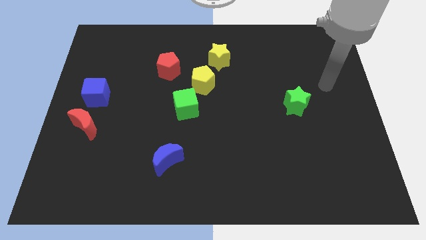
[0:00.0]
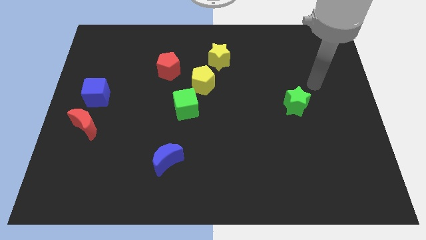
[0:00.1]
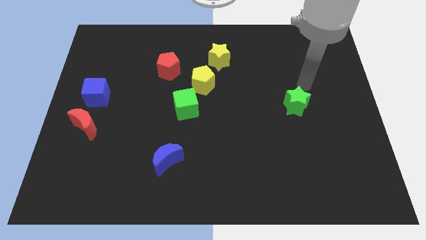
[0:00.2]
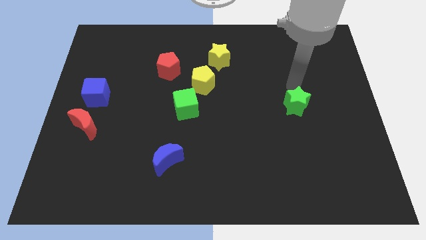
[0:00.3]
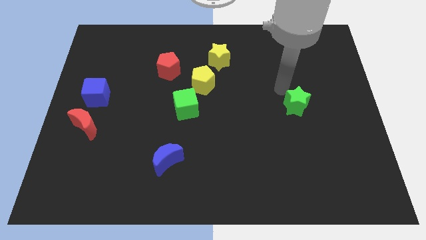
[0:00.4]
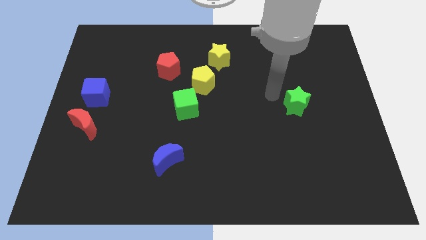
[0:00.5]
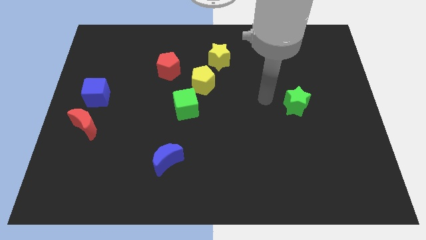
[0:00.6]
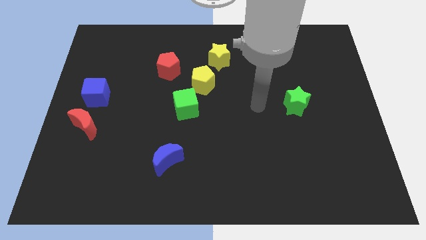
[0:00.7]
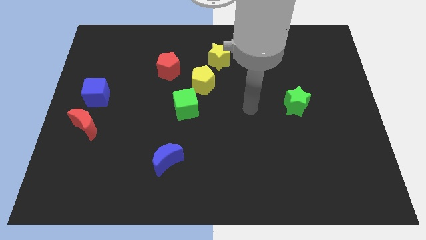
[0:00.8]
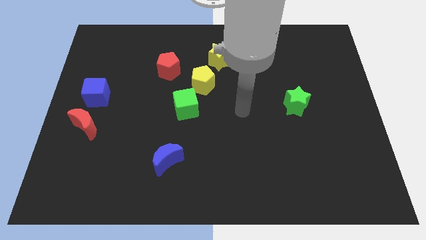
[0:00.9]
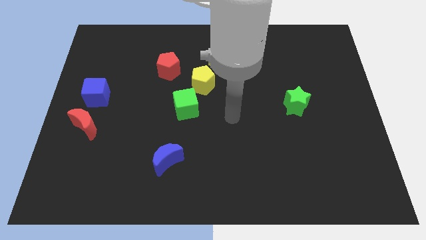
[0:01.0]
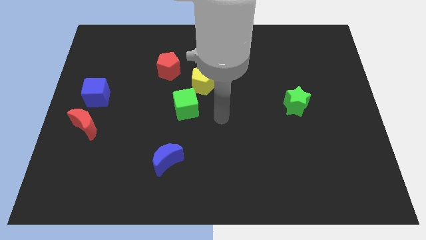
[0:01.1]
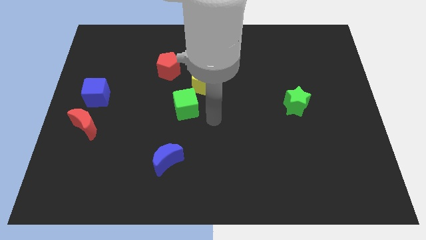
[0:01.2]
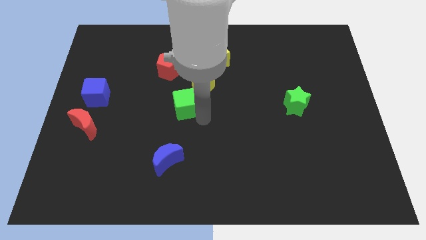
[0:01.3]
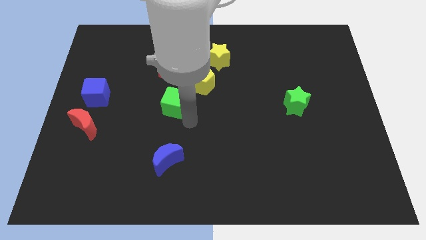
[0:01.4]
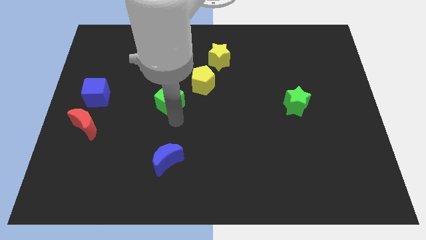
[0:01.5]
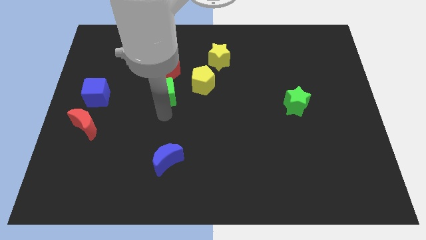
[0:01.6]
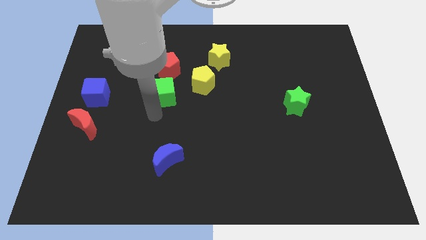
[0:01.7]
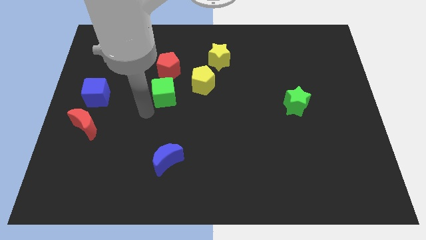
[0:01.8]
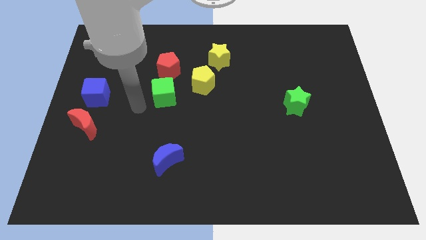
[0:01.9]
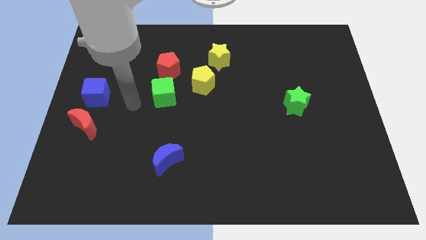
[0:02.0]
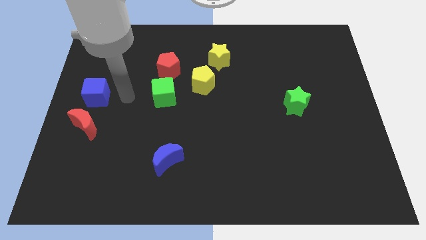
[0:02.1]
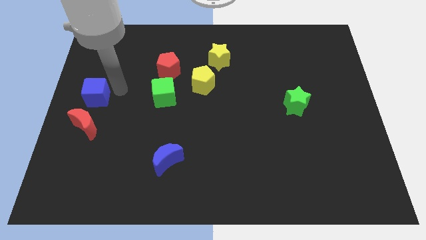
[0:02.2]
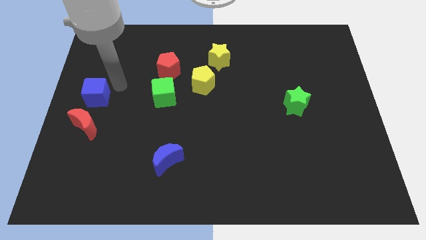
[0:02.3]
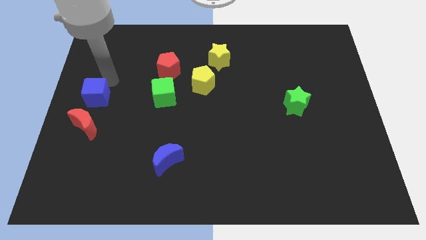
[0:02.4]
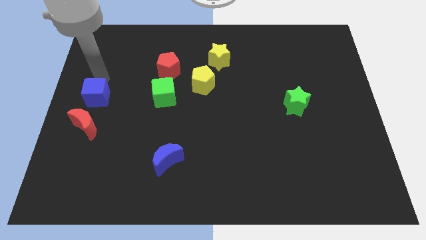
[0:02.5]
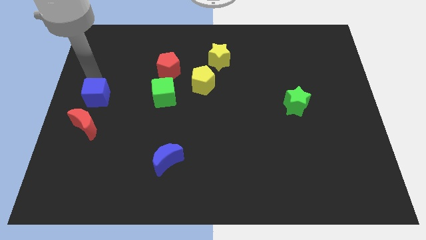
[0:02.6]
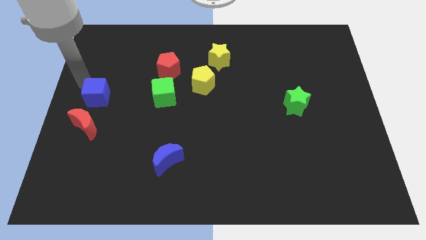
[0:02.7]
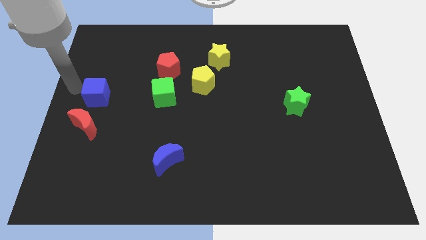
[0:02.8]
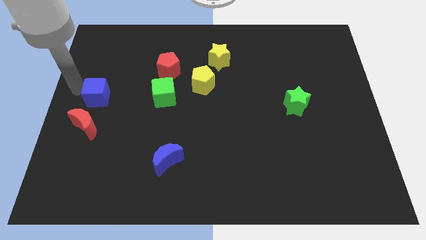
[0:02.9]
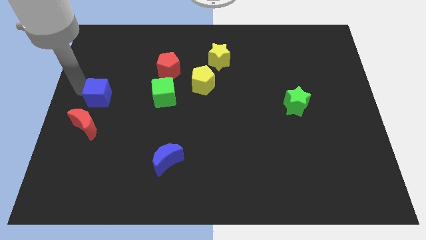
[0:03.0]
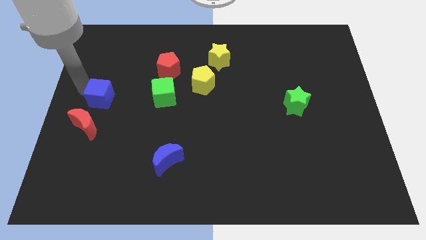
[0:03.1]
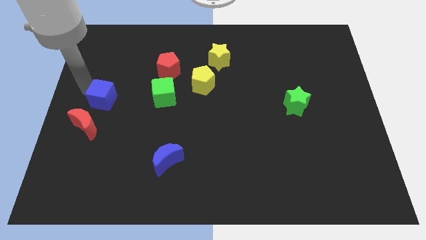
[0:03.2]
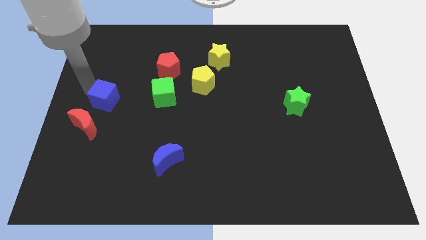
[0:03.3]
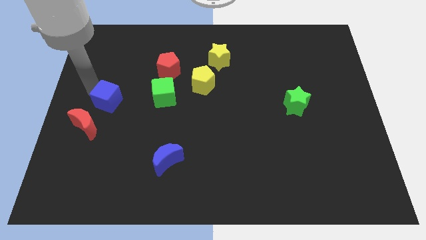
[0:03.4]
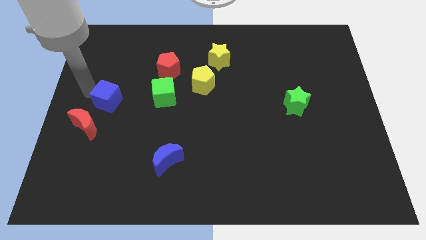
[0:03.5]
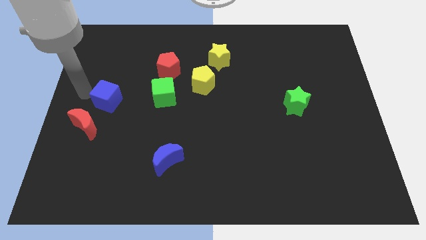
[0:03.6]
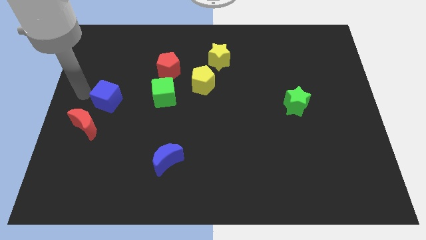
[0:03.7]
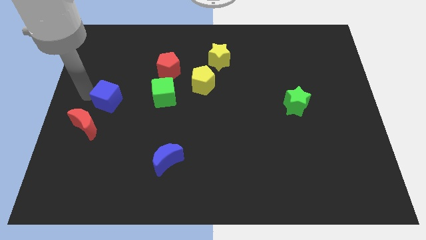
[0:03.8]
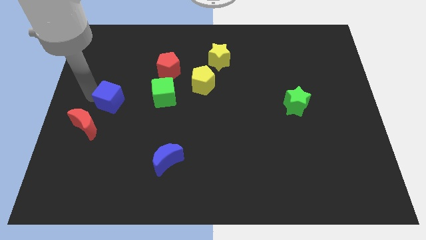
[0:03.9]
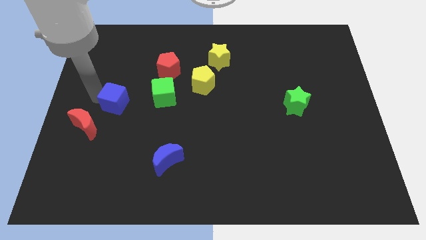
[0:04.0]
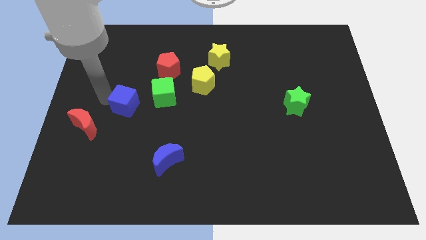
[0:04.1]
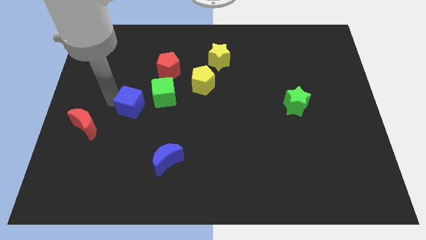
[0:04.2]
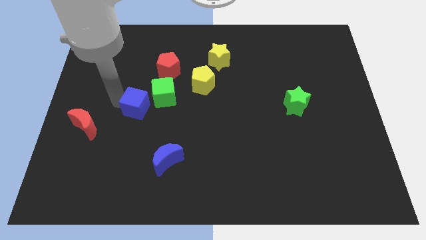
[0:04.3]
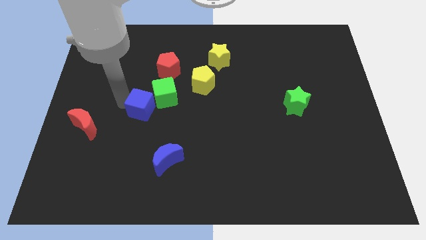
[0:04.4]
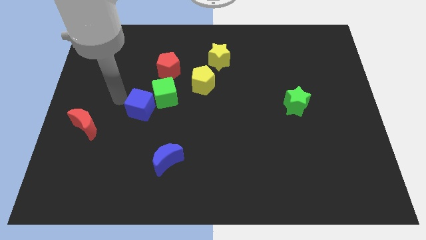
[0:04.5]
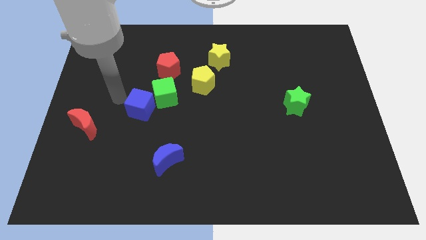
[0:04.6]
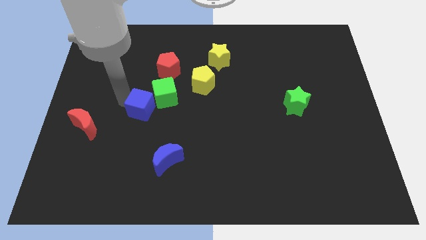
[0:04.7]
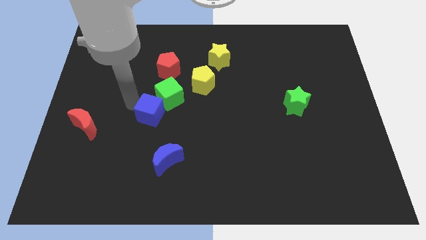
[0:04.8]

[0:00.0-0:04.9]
move the blue cube to the top side of the blue moon

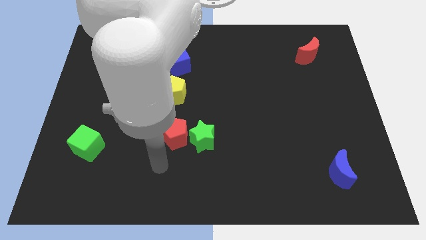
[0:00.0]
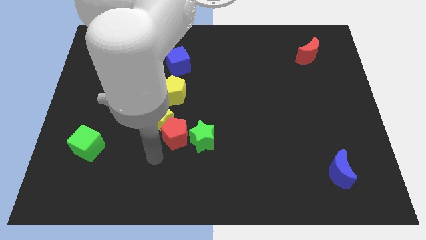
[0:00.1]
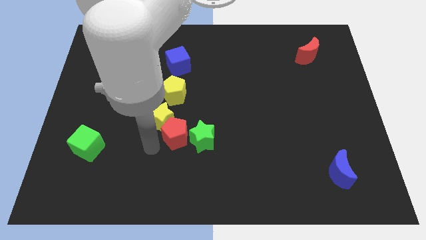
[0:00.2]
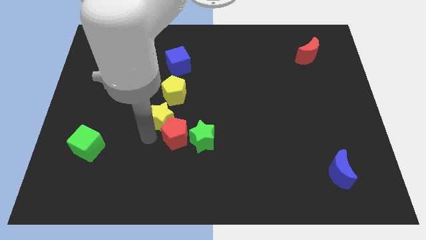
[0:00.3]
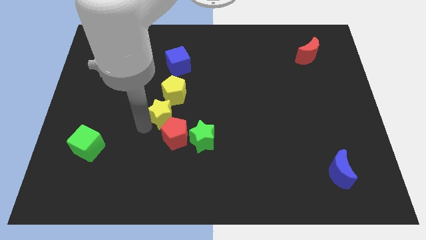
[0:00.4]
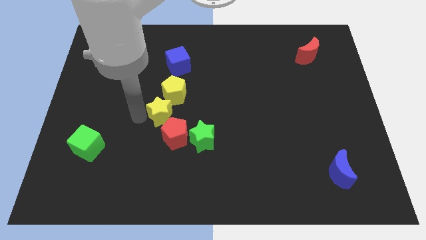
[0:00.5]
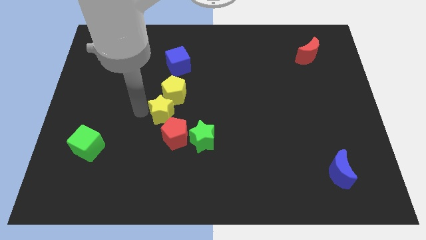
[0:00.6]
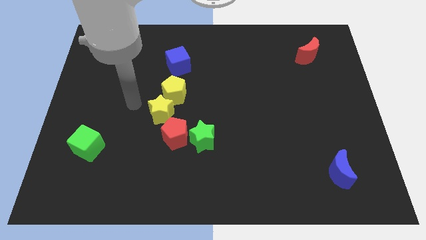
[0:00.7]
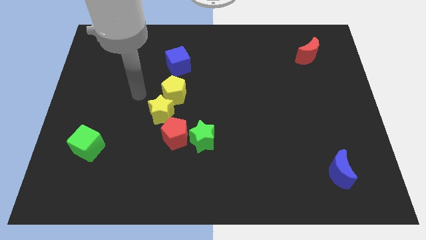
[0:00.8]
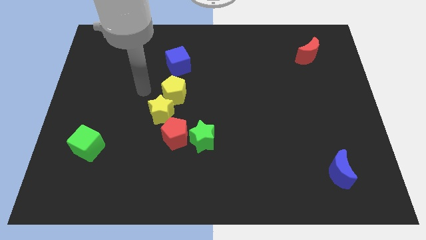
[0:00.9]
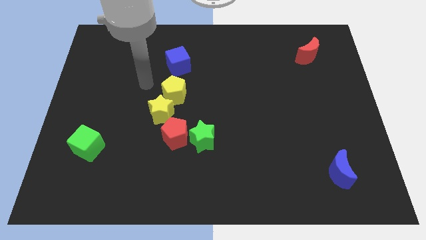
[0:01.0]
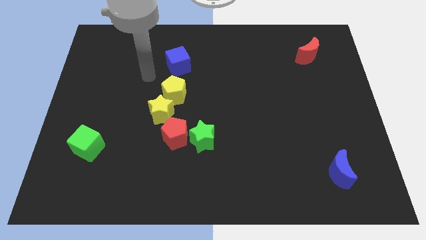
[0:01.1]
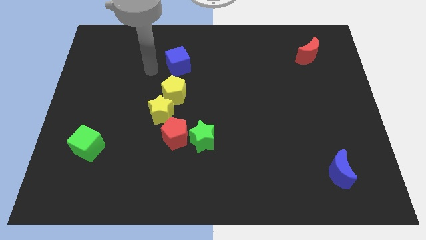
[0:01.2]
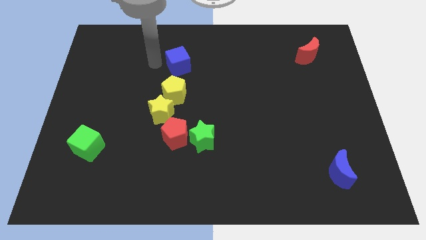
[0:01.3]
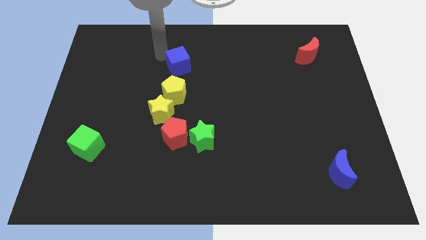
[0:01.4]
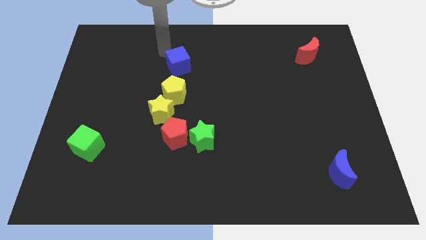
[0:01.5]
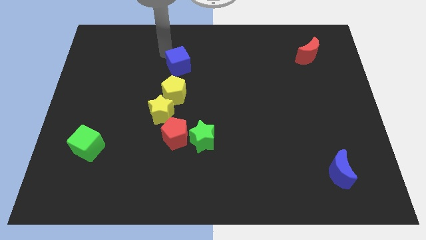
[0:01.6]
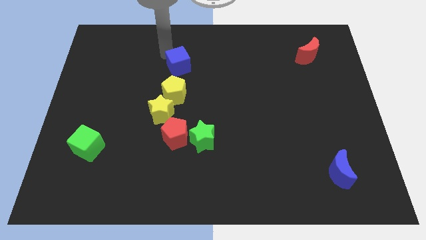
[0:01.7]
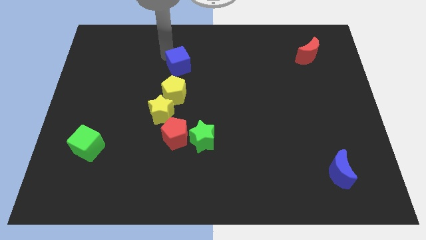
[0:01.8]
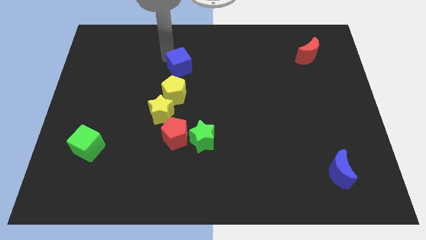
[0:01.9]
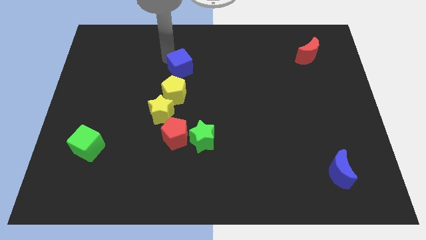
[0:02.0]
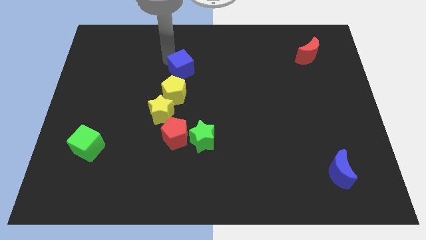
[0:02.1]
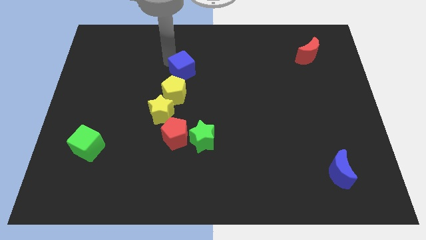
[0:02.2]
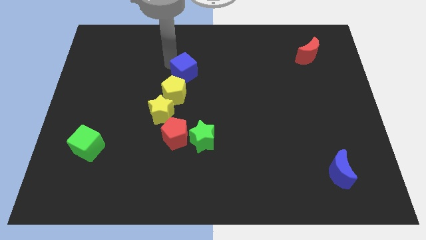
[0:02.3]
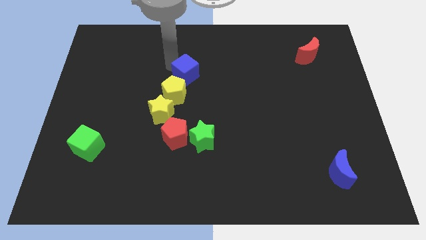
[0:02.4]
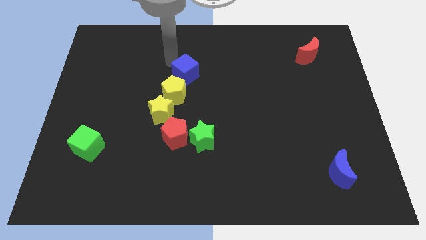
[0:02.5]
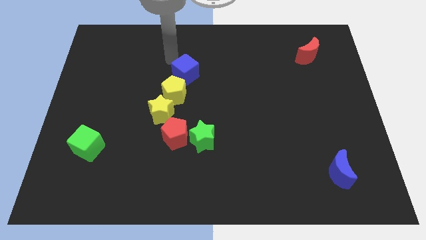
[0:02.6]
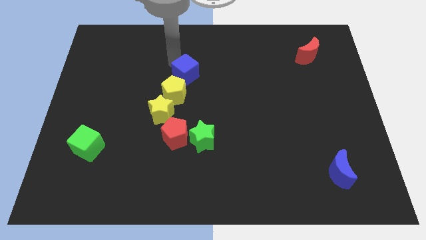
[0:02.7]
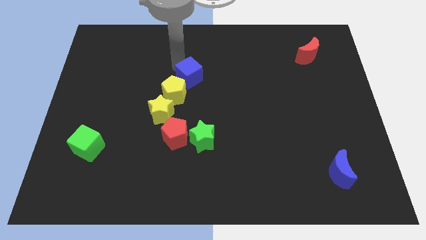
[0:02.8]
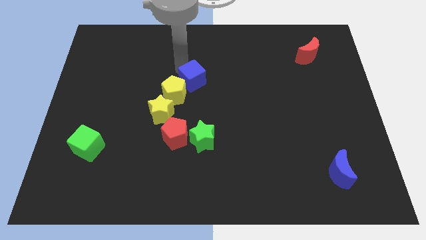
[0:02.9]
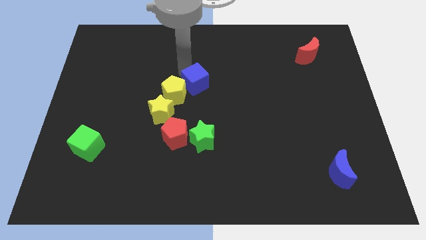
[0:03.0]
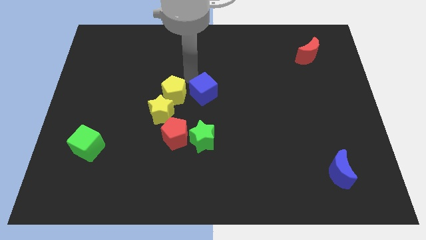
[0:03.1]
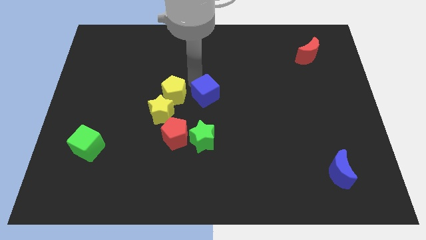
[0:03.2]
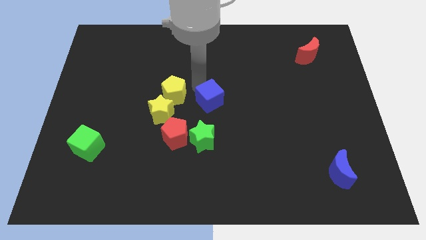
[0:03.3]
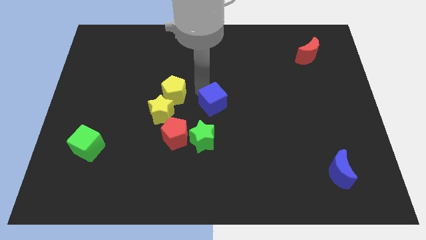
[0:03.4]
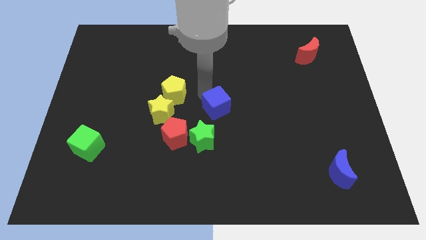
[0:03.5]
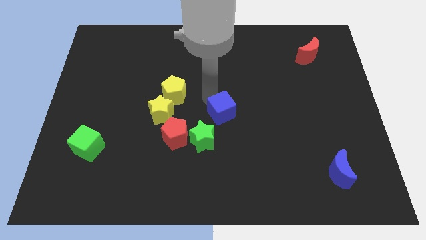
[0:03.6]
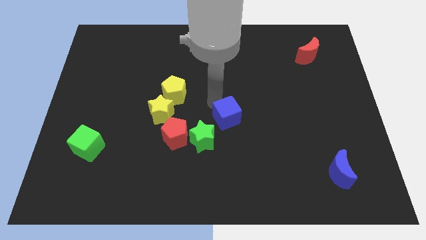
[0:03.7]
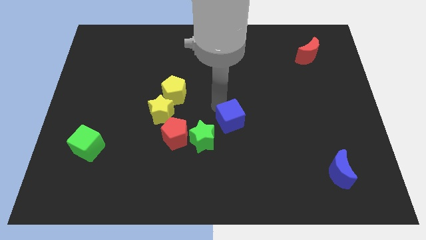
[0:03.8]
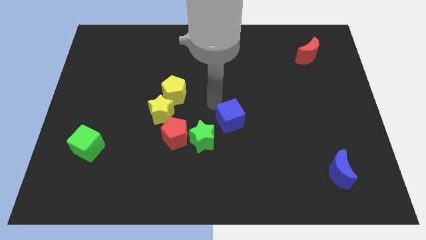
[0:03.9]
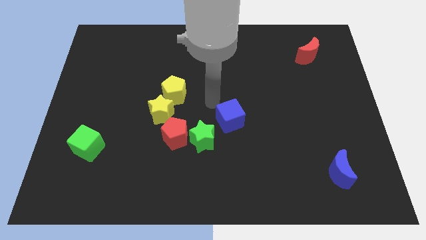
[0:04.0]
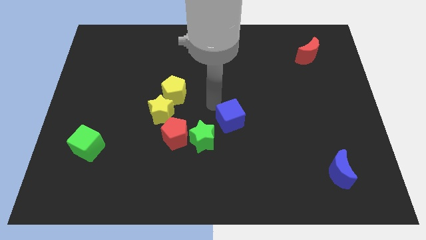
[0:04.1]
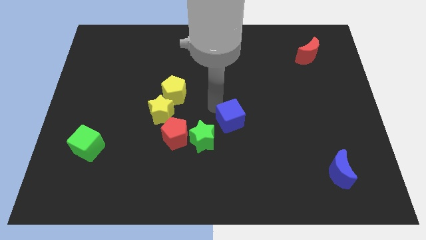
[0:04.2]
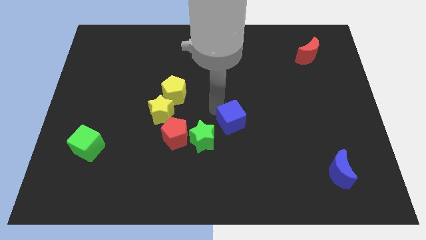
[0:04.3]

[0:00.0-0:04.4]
move the blue cube to the right side of the green star
